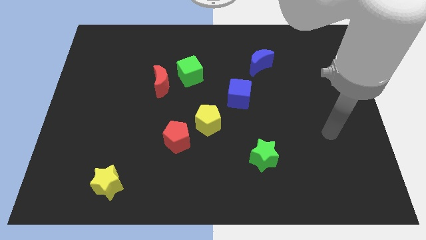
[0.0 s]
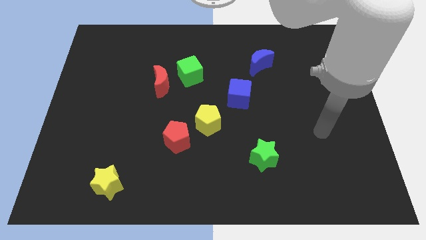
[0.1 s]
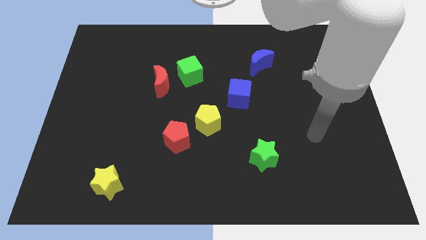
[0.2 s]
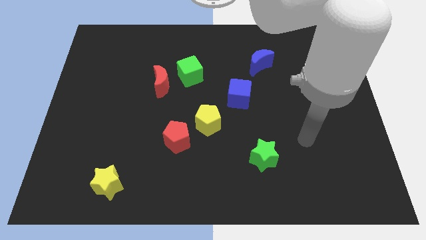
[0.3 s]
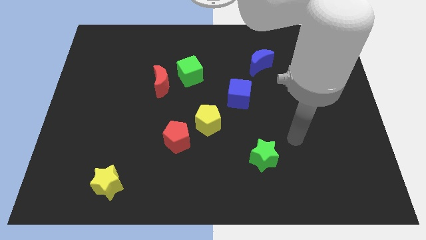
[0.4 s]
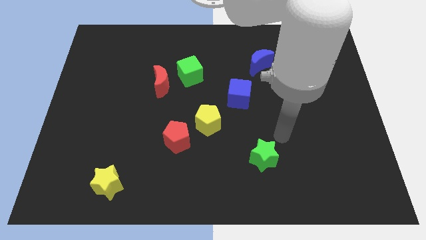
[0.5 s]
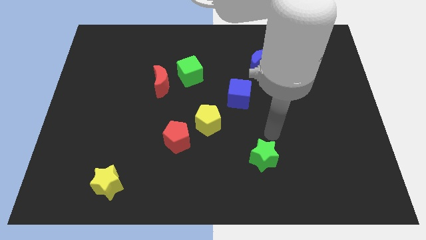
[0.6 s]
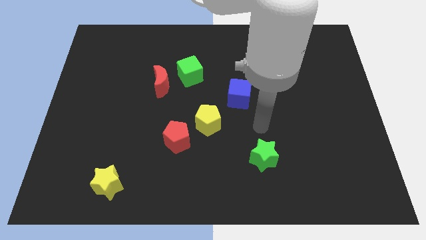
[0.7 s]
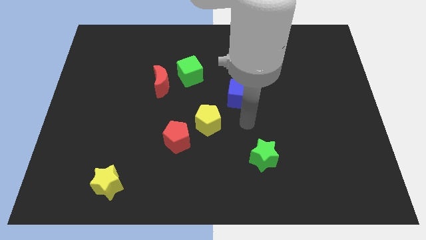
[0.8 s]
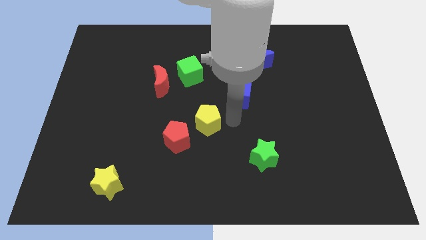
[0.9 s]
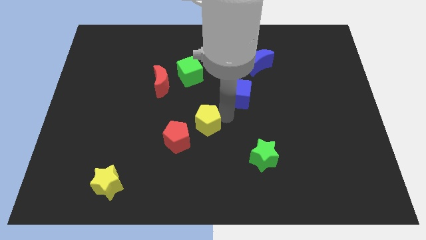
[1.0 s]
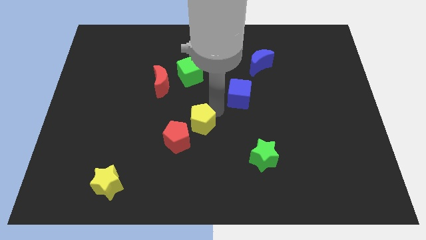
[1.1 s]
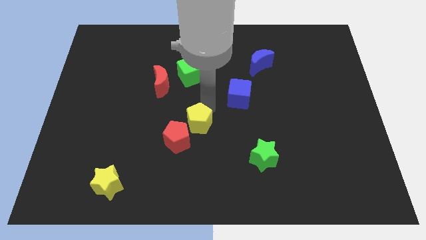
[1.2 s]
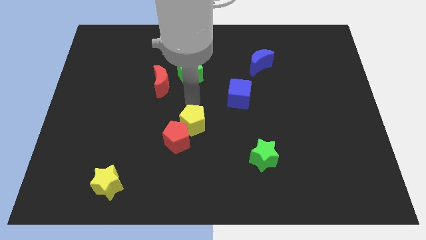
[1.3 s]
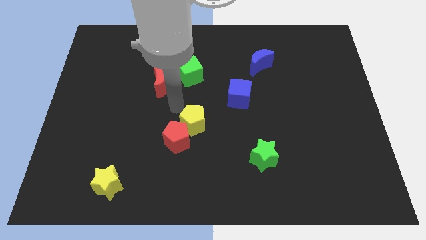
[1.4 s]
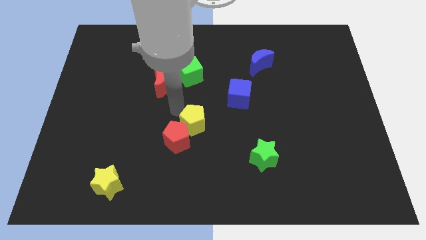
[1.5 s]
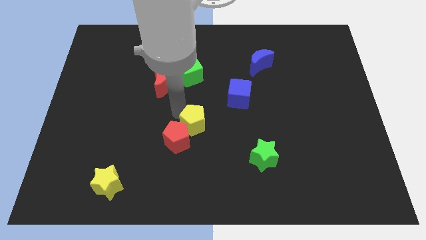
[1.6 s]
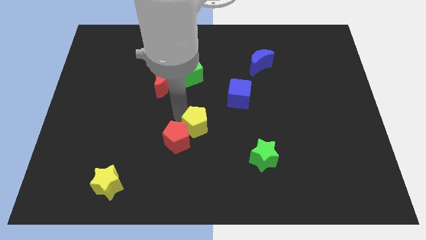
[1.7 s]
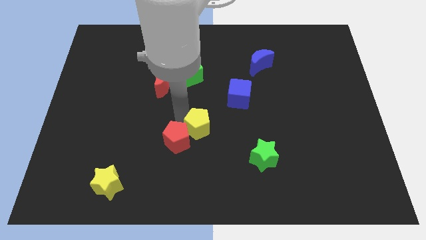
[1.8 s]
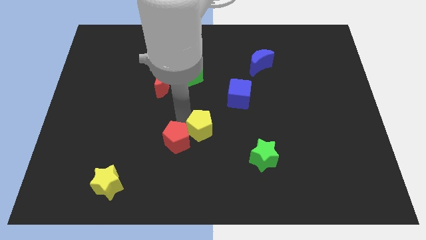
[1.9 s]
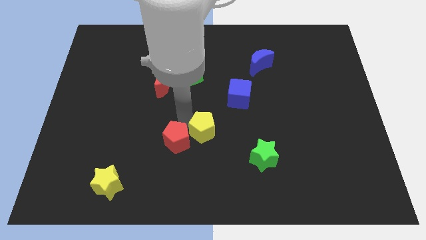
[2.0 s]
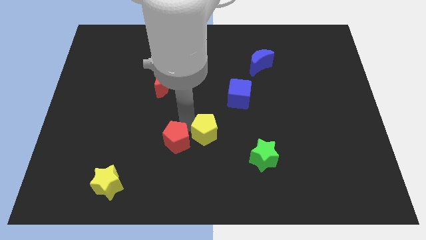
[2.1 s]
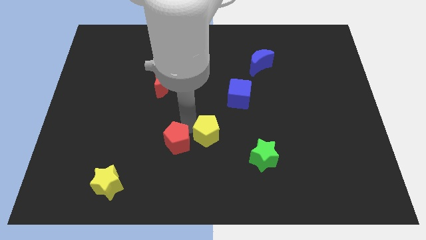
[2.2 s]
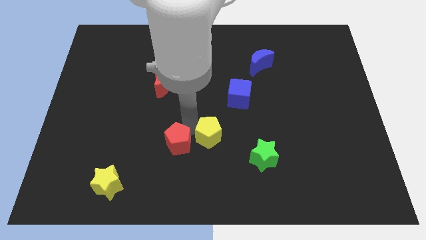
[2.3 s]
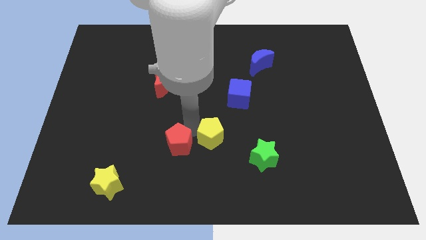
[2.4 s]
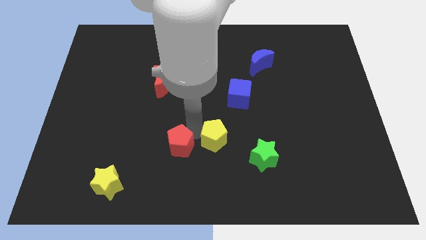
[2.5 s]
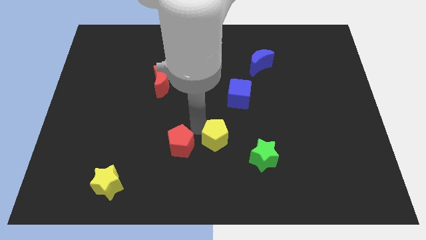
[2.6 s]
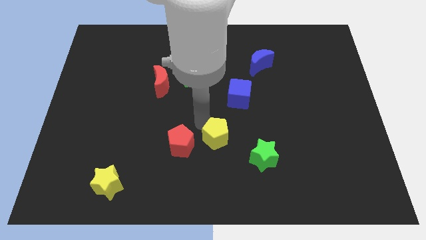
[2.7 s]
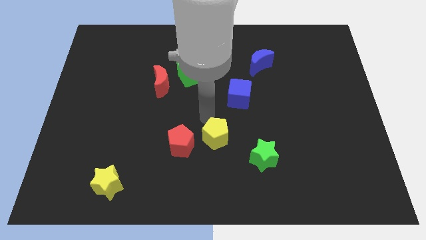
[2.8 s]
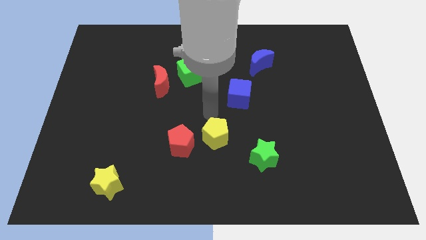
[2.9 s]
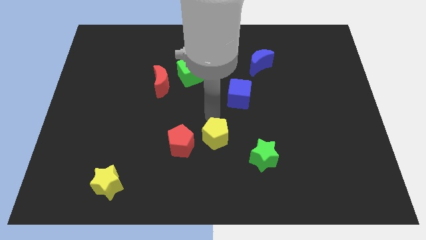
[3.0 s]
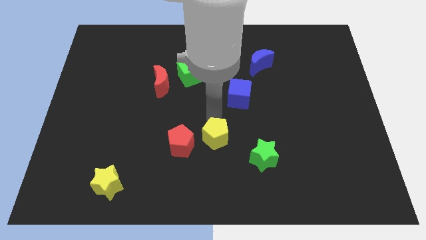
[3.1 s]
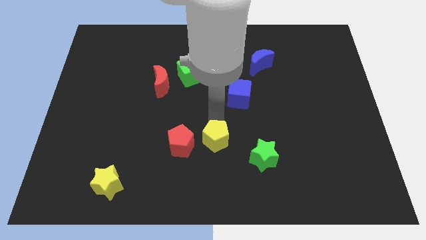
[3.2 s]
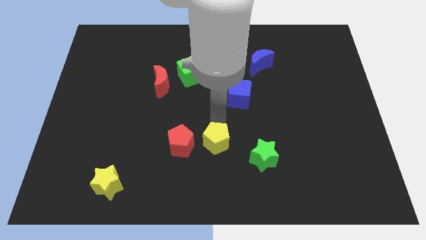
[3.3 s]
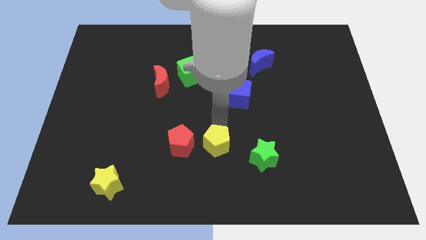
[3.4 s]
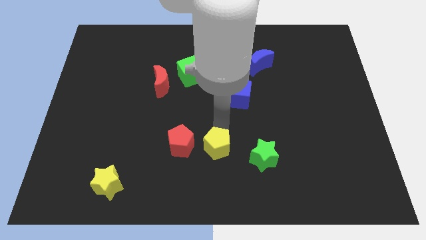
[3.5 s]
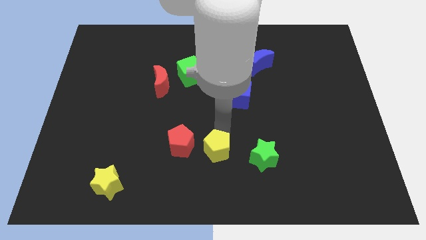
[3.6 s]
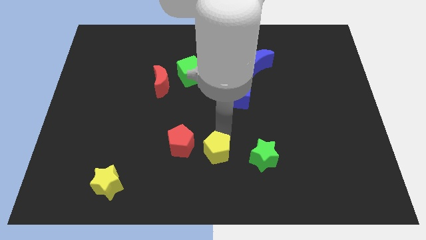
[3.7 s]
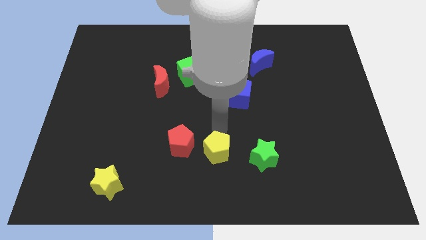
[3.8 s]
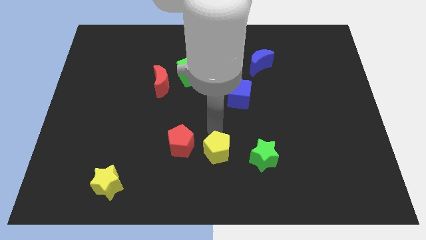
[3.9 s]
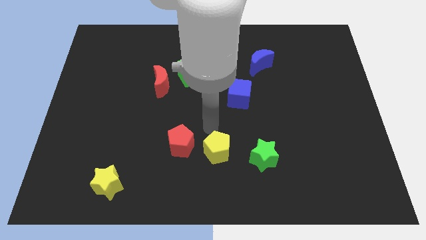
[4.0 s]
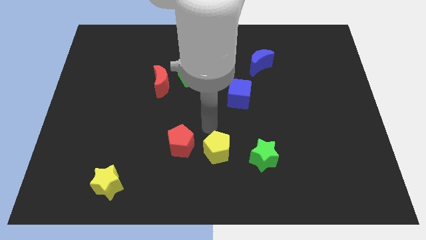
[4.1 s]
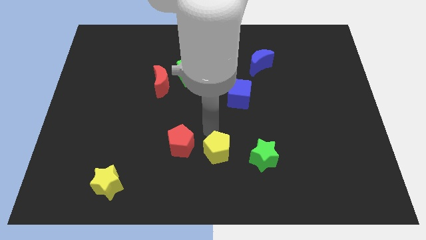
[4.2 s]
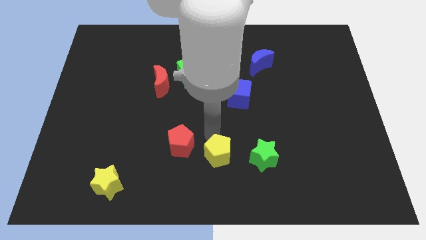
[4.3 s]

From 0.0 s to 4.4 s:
slide the yellow pentagon slightly downwards and to the right diagonally

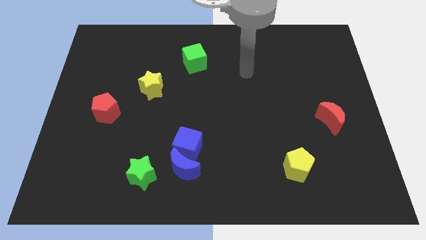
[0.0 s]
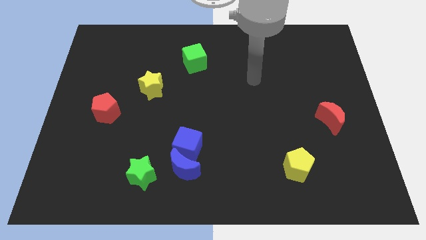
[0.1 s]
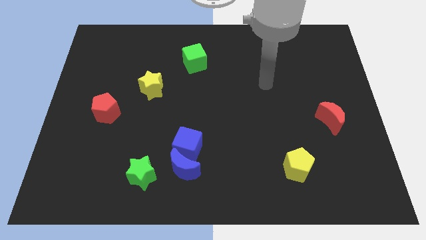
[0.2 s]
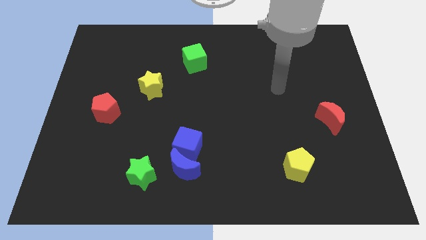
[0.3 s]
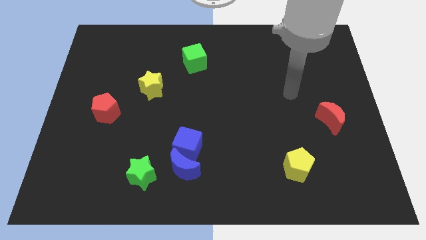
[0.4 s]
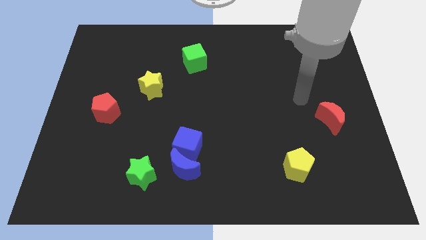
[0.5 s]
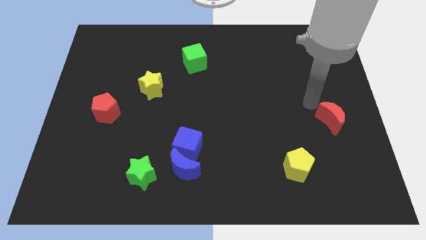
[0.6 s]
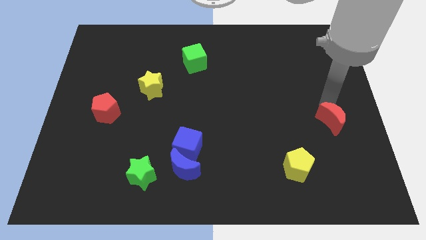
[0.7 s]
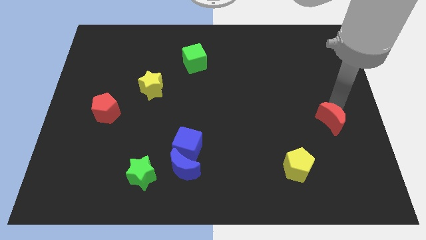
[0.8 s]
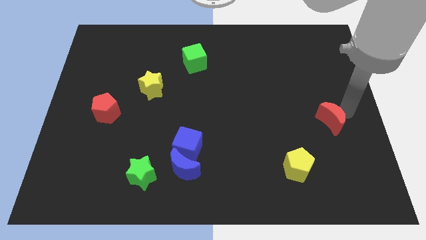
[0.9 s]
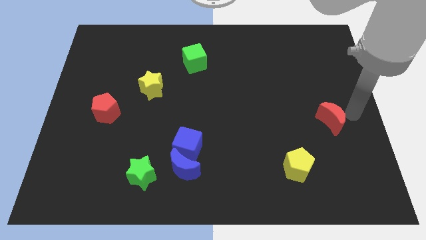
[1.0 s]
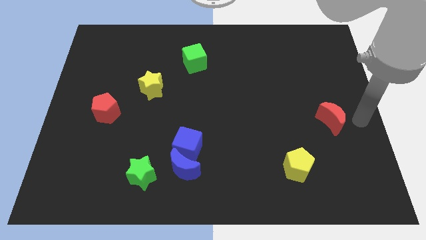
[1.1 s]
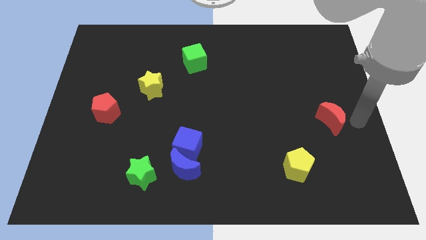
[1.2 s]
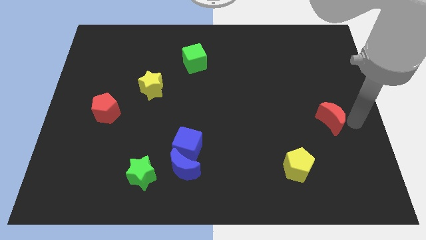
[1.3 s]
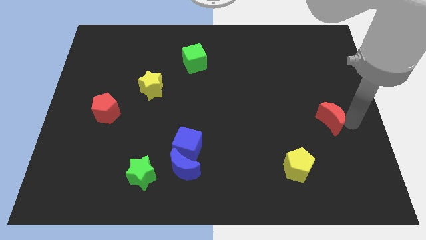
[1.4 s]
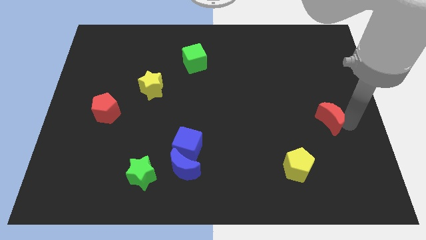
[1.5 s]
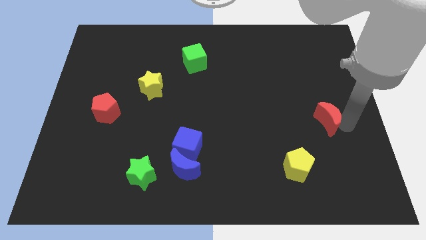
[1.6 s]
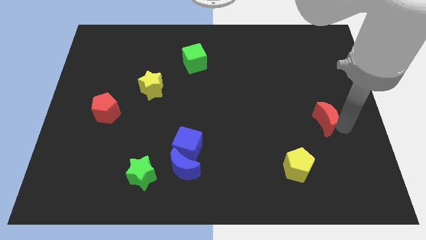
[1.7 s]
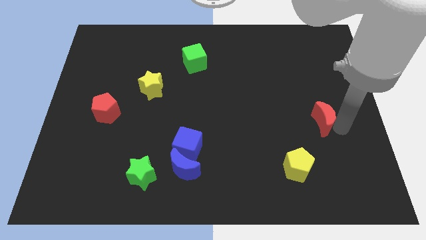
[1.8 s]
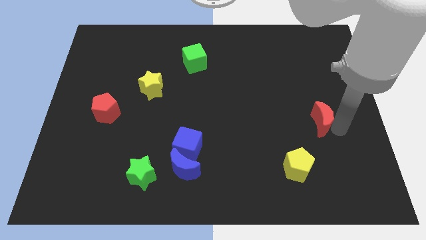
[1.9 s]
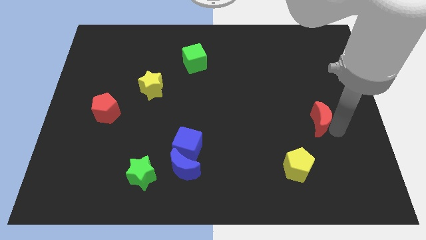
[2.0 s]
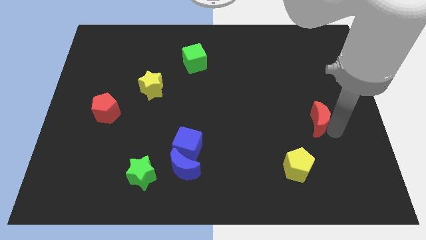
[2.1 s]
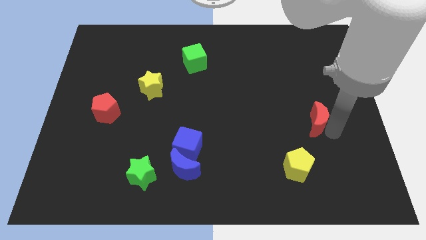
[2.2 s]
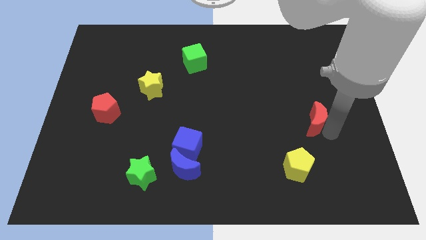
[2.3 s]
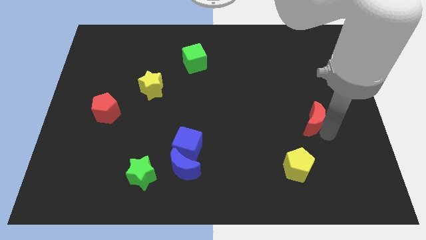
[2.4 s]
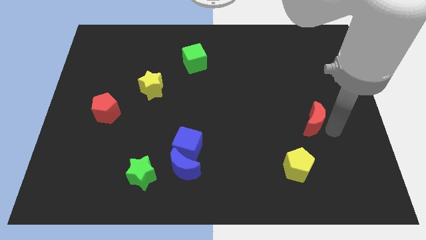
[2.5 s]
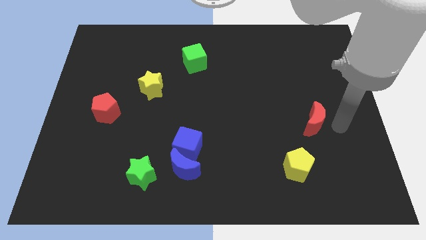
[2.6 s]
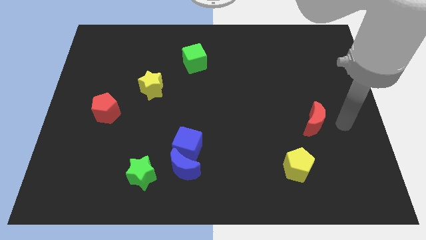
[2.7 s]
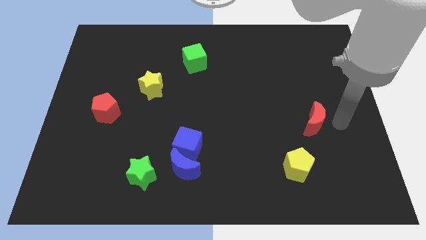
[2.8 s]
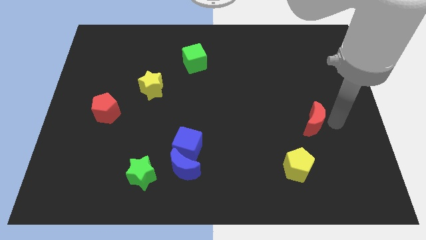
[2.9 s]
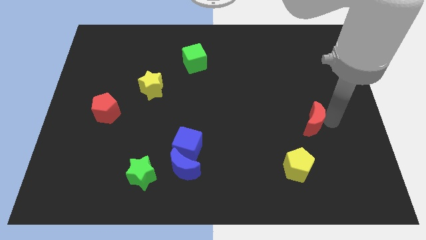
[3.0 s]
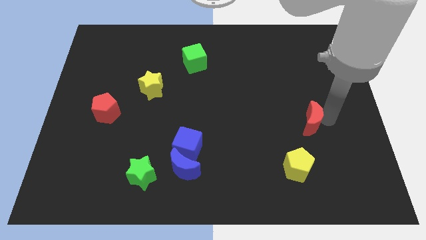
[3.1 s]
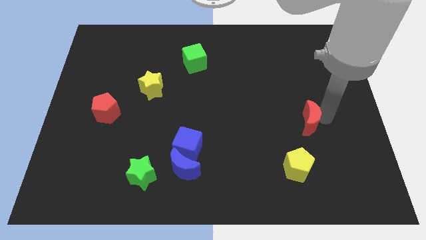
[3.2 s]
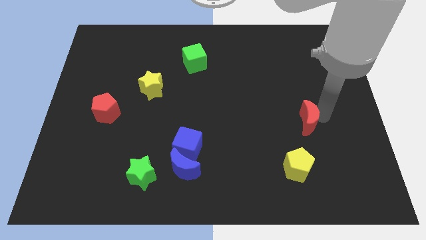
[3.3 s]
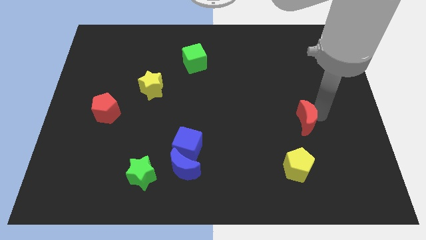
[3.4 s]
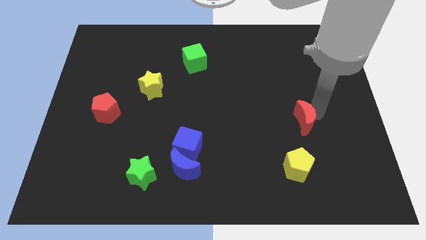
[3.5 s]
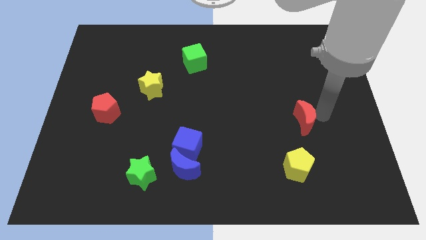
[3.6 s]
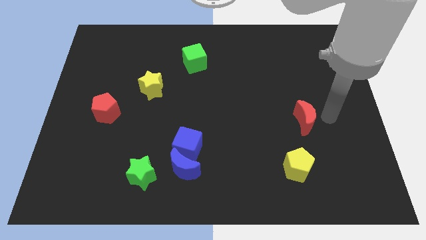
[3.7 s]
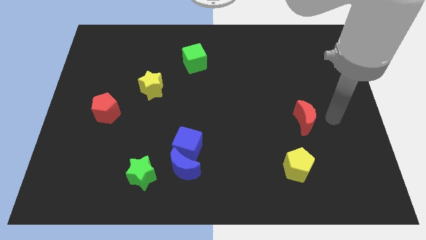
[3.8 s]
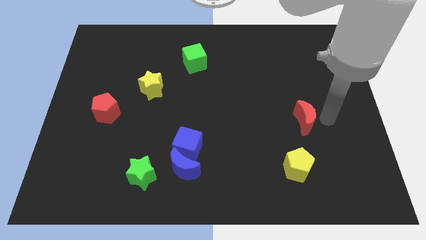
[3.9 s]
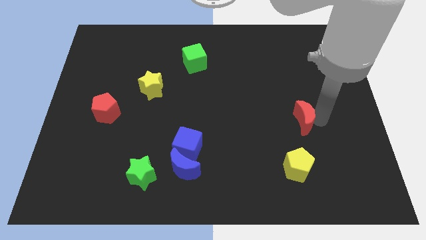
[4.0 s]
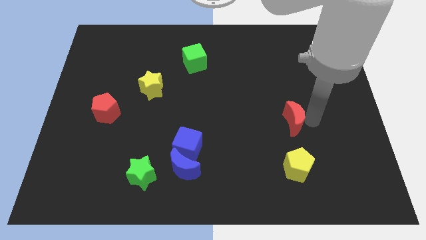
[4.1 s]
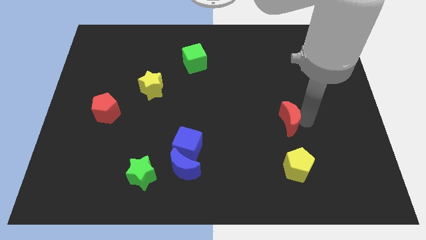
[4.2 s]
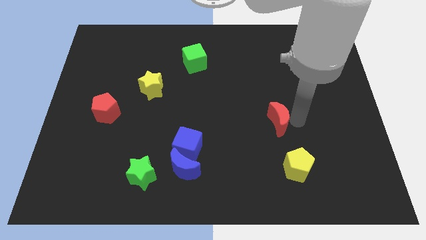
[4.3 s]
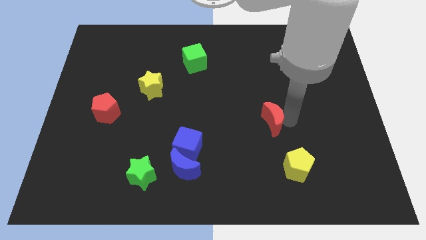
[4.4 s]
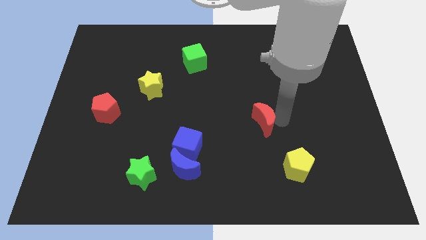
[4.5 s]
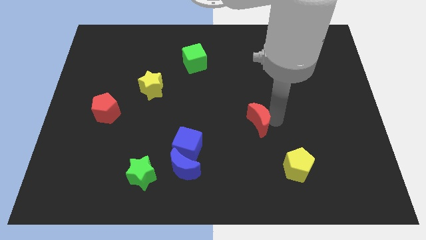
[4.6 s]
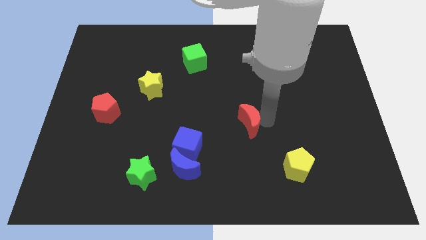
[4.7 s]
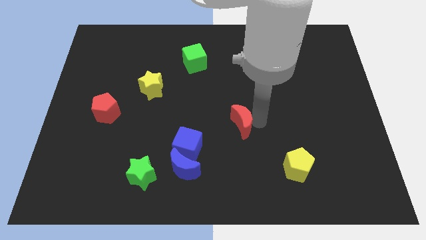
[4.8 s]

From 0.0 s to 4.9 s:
slide the red moon left
